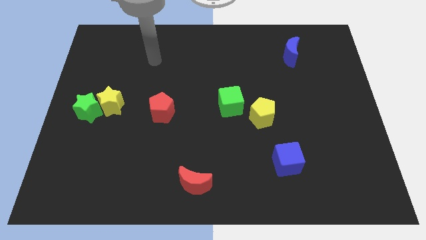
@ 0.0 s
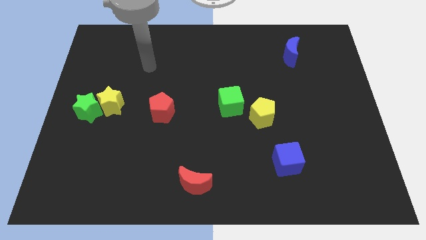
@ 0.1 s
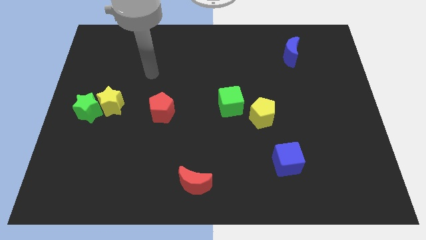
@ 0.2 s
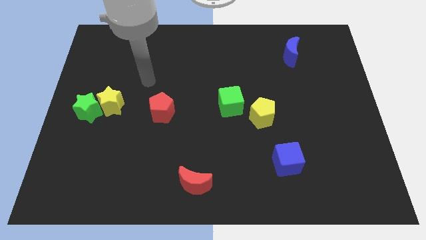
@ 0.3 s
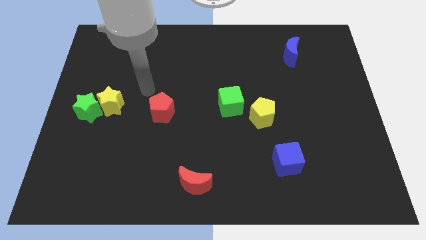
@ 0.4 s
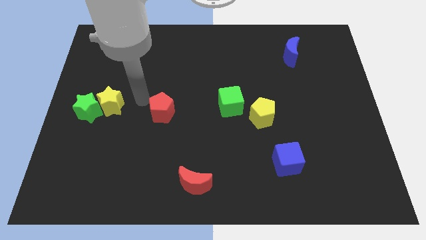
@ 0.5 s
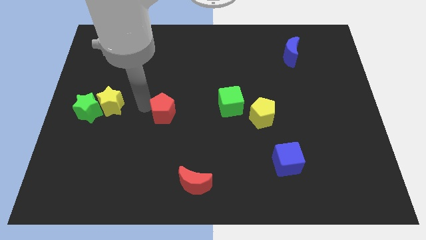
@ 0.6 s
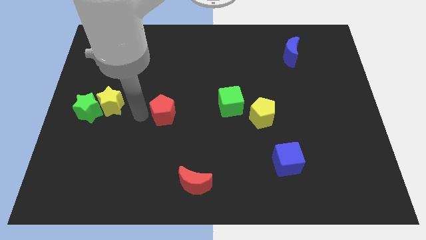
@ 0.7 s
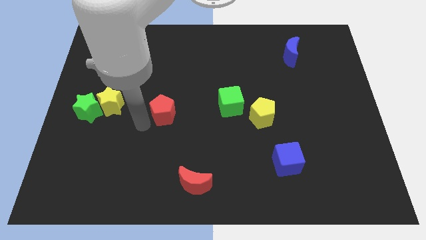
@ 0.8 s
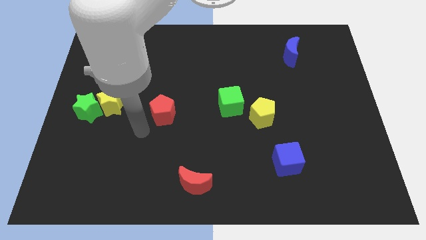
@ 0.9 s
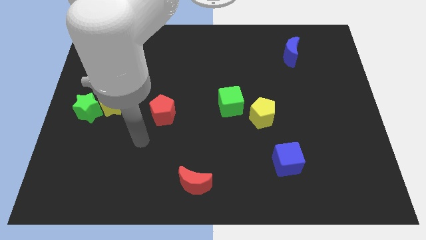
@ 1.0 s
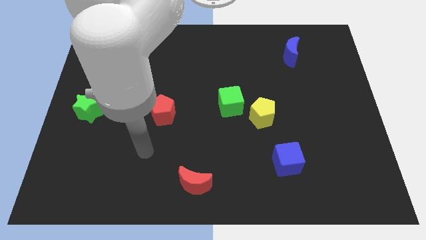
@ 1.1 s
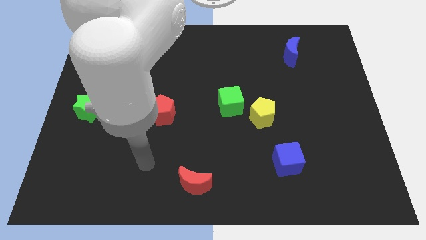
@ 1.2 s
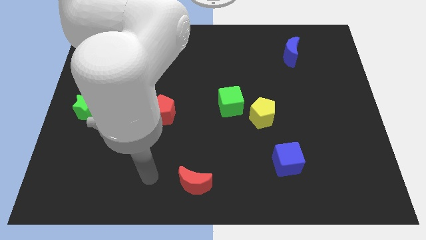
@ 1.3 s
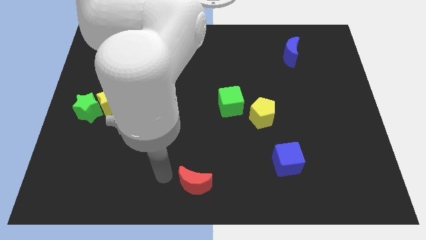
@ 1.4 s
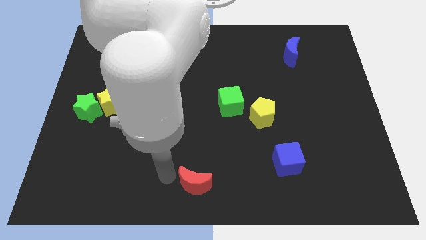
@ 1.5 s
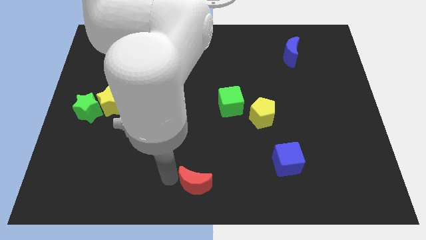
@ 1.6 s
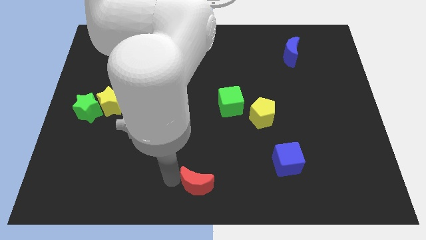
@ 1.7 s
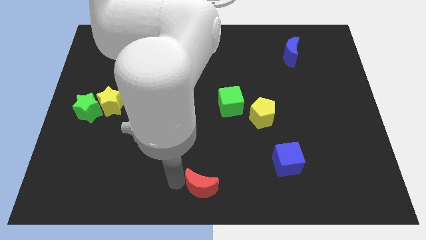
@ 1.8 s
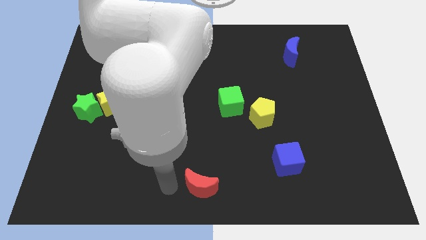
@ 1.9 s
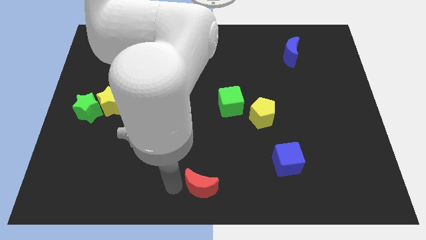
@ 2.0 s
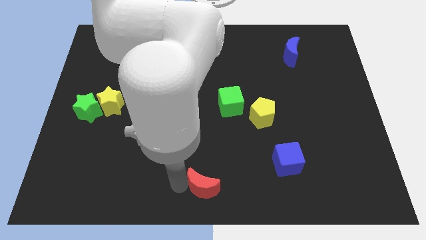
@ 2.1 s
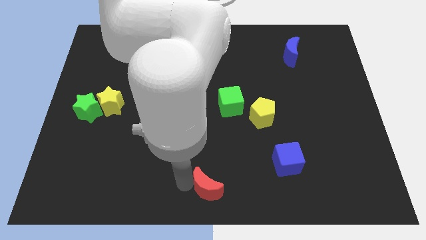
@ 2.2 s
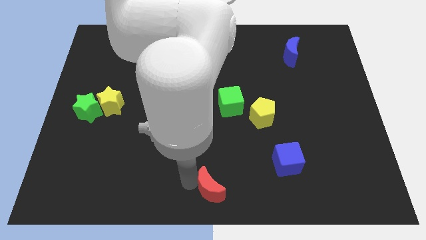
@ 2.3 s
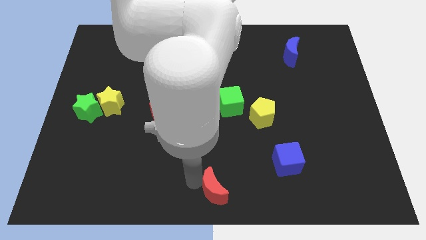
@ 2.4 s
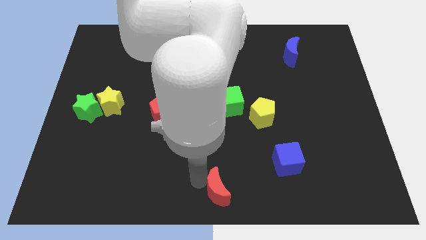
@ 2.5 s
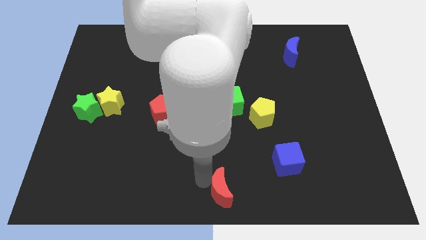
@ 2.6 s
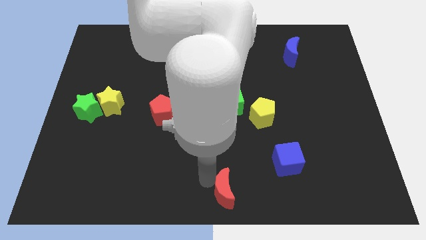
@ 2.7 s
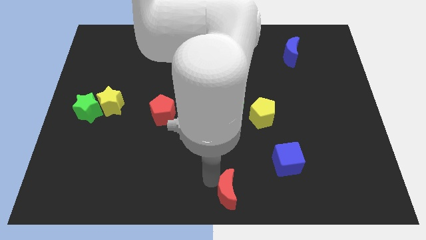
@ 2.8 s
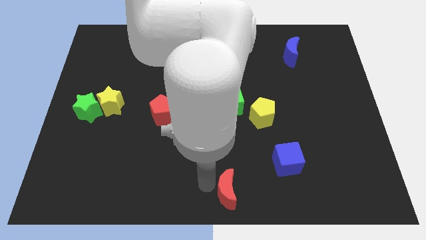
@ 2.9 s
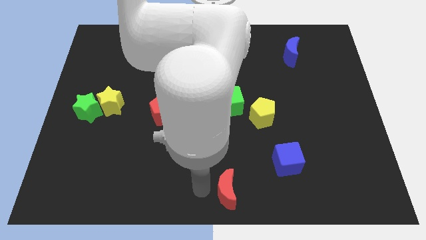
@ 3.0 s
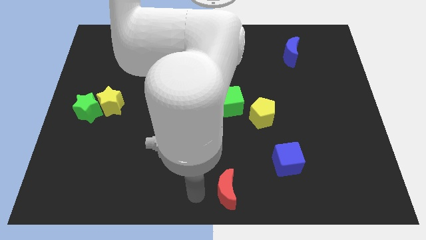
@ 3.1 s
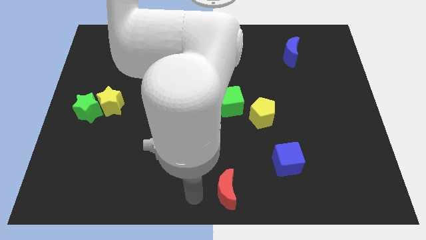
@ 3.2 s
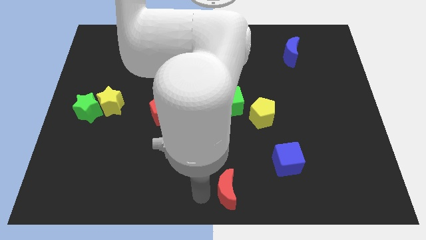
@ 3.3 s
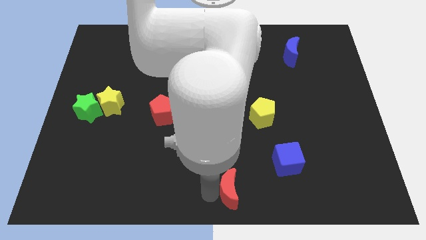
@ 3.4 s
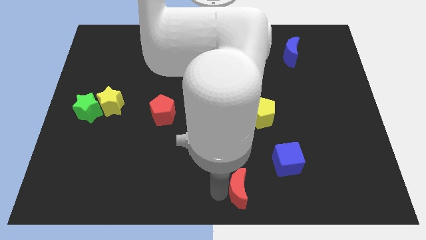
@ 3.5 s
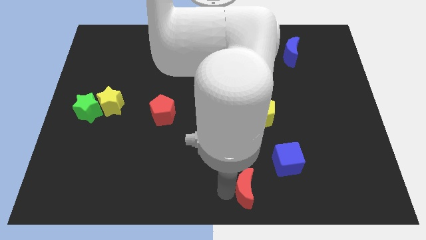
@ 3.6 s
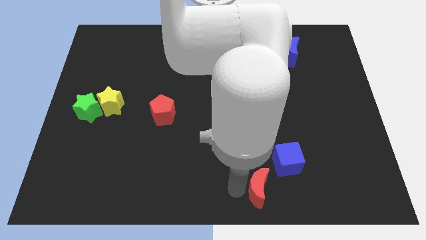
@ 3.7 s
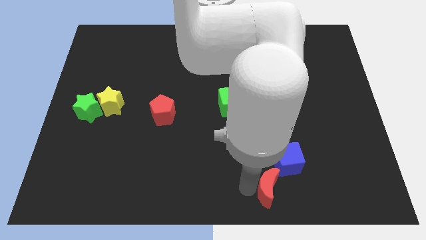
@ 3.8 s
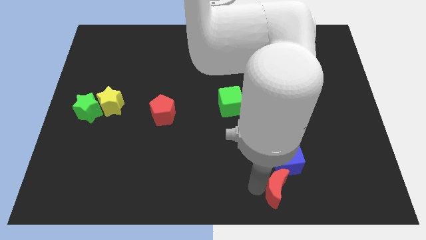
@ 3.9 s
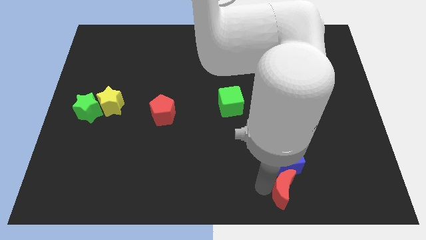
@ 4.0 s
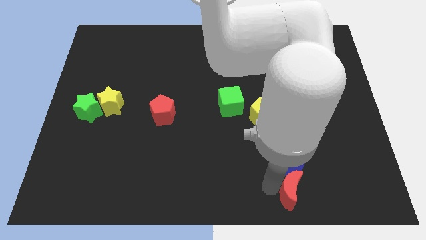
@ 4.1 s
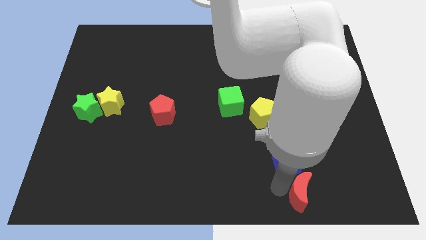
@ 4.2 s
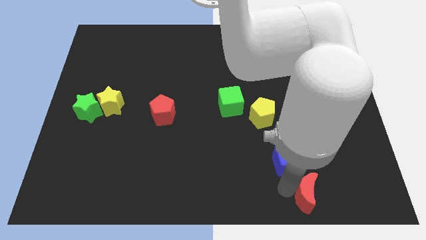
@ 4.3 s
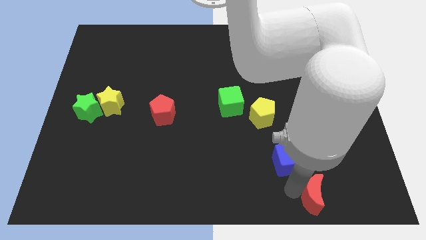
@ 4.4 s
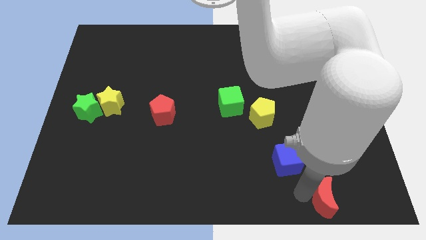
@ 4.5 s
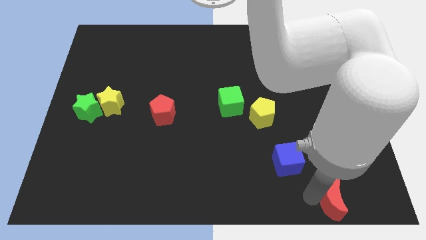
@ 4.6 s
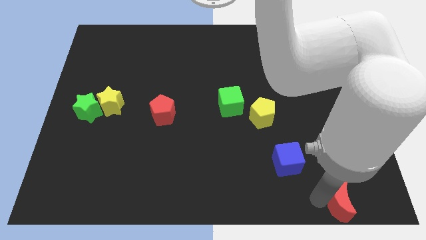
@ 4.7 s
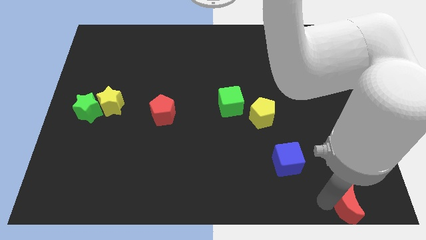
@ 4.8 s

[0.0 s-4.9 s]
push the red moon to the lower right corner

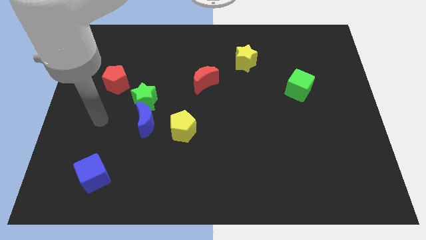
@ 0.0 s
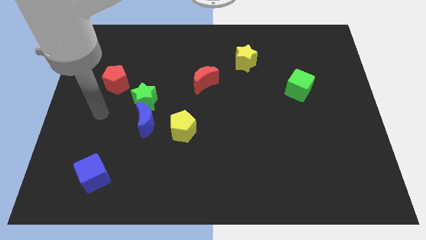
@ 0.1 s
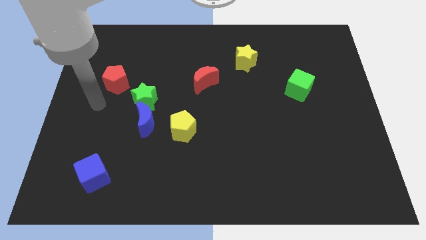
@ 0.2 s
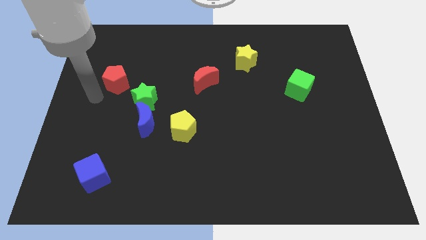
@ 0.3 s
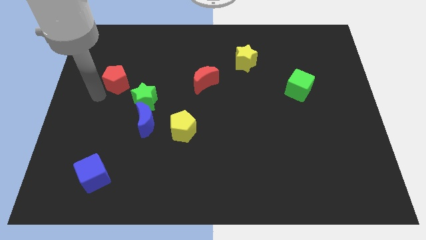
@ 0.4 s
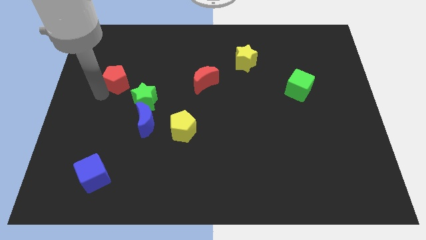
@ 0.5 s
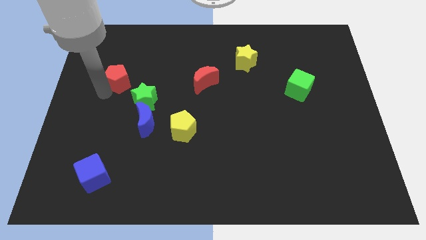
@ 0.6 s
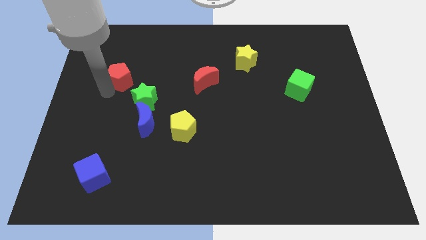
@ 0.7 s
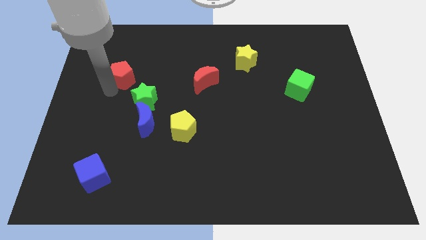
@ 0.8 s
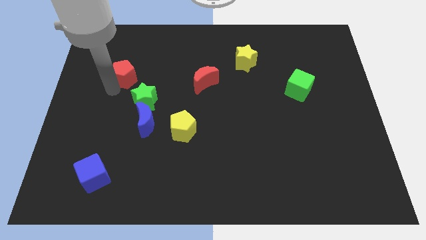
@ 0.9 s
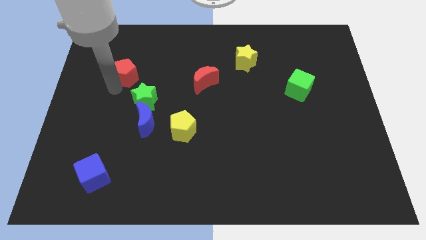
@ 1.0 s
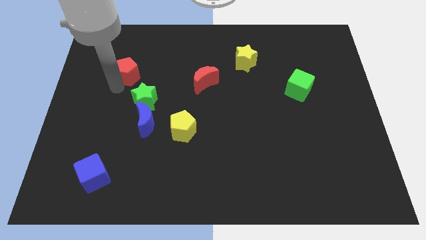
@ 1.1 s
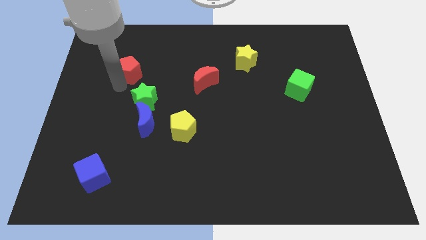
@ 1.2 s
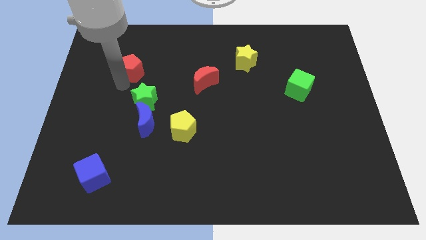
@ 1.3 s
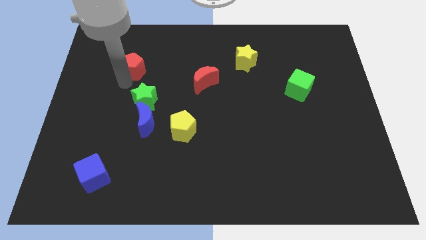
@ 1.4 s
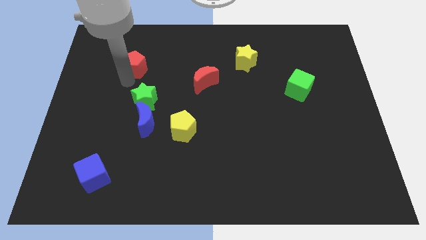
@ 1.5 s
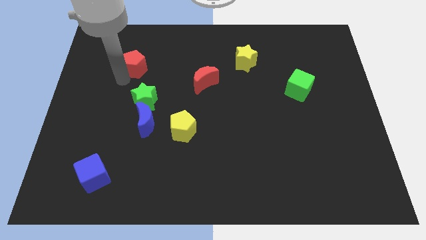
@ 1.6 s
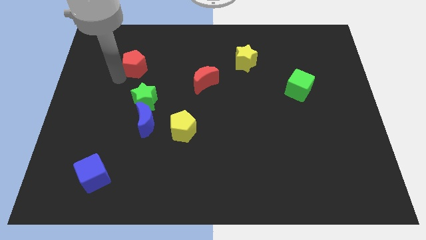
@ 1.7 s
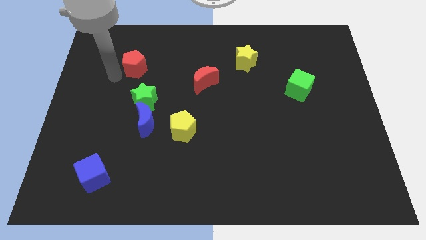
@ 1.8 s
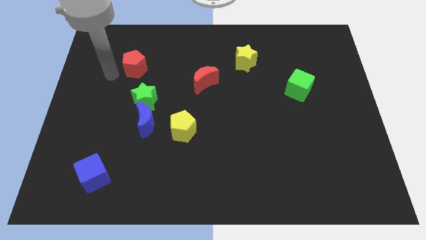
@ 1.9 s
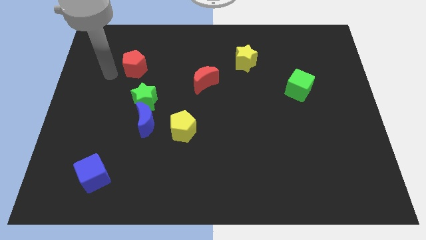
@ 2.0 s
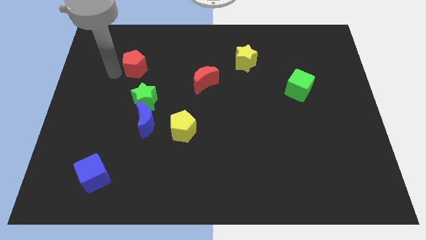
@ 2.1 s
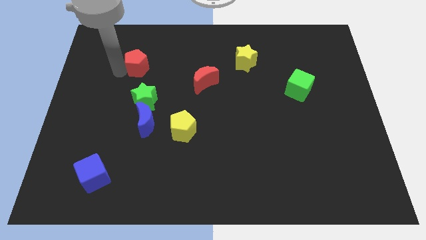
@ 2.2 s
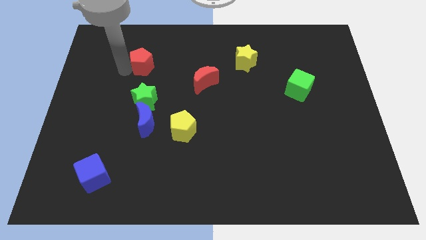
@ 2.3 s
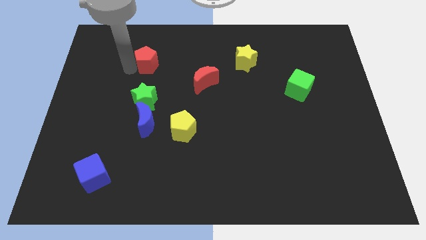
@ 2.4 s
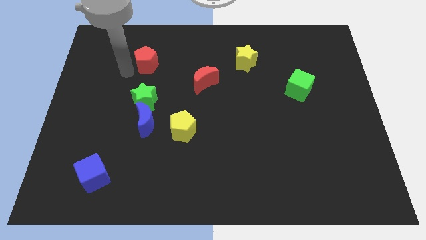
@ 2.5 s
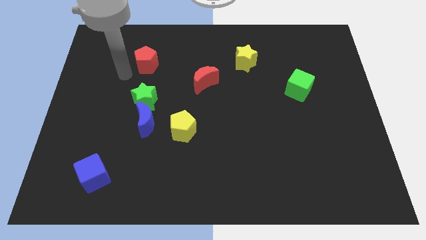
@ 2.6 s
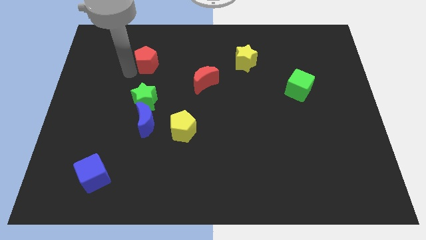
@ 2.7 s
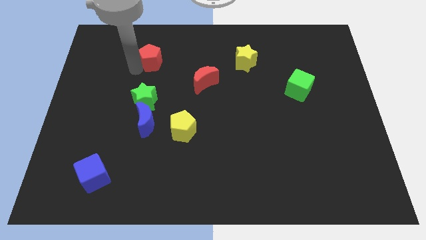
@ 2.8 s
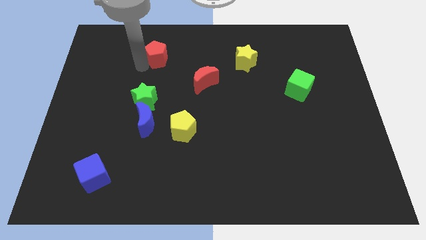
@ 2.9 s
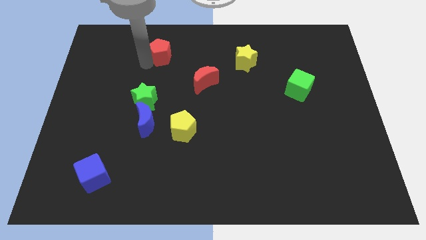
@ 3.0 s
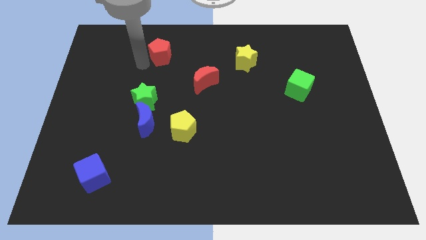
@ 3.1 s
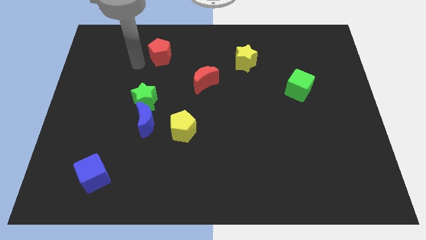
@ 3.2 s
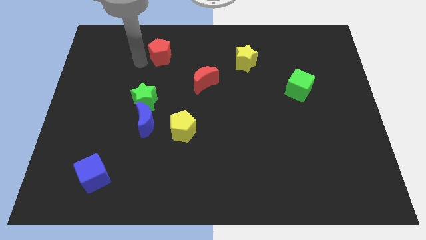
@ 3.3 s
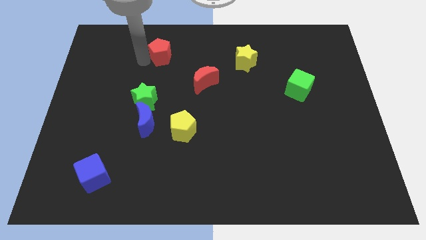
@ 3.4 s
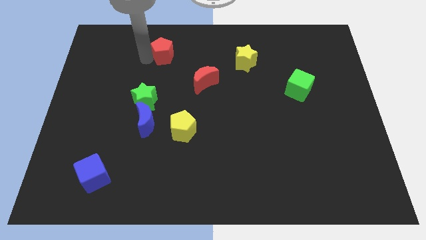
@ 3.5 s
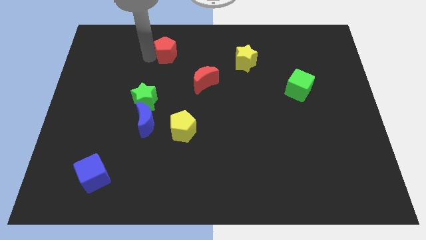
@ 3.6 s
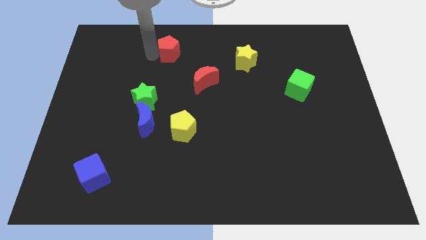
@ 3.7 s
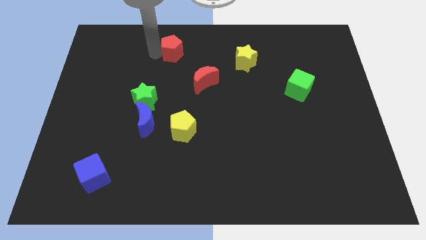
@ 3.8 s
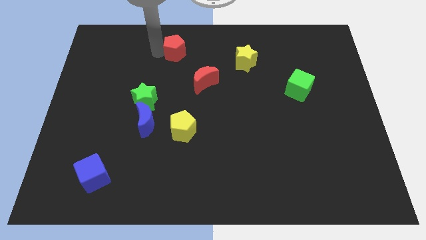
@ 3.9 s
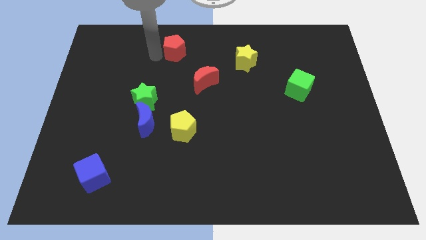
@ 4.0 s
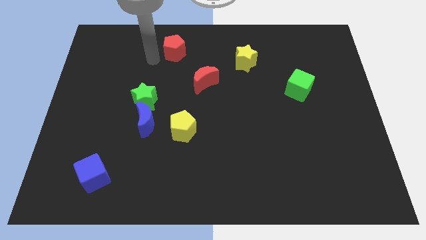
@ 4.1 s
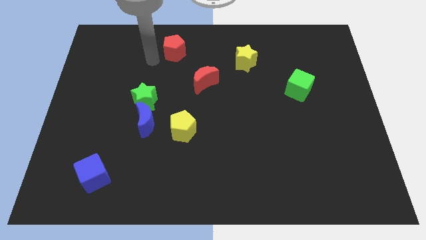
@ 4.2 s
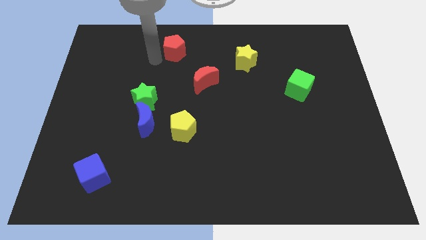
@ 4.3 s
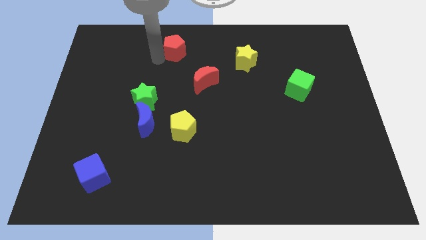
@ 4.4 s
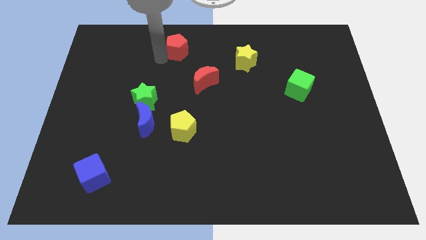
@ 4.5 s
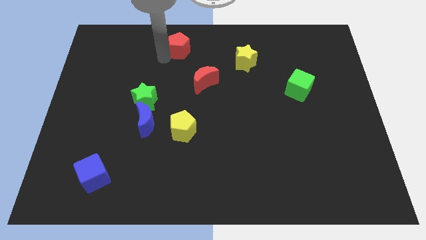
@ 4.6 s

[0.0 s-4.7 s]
put the red pentagon to the towards your base
